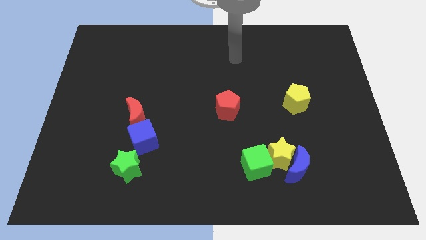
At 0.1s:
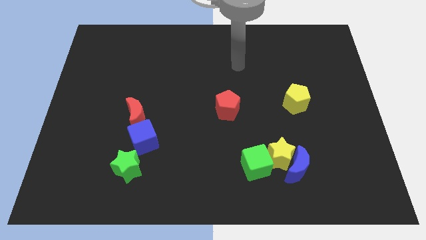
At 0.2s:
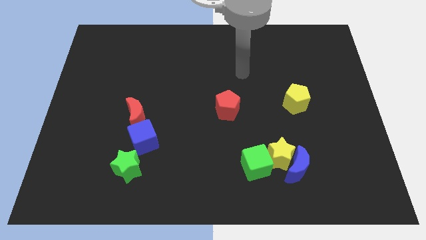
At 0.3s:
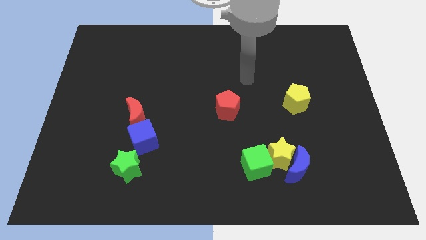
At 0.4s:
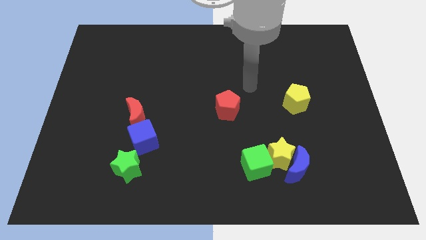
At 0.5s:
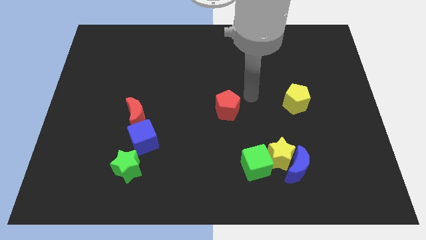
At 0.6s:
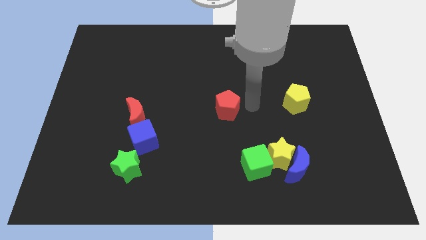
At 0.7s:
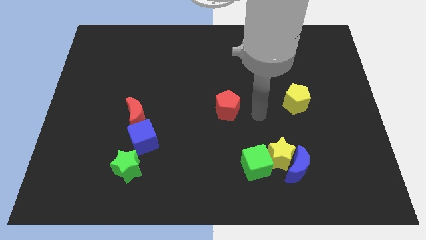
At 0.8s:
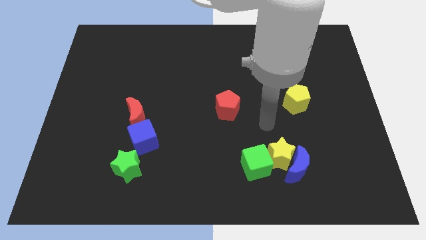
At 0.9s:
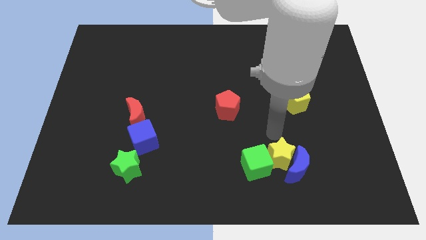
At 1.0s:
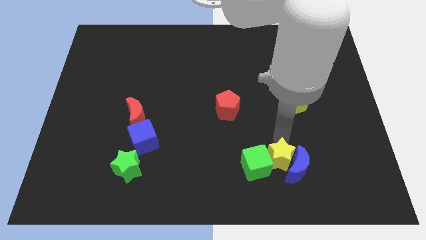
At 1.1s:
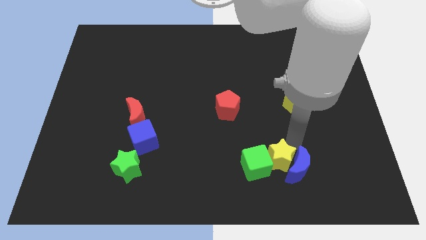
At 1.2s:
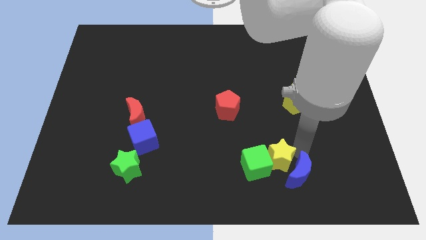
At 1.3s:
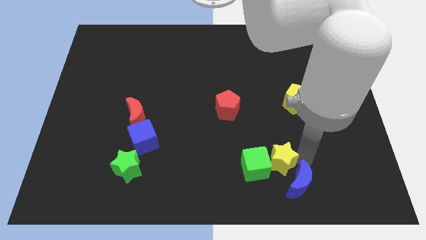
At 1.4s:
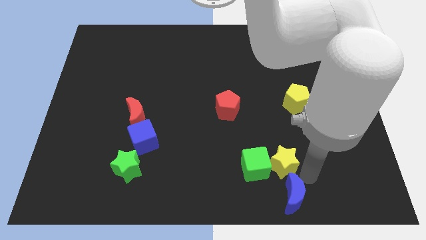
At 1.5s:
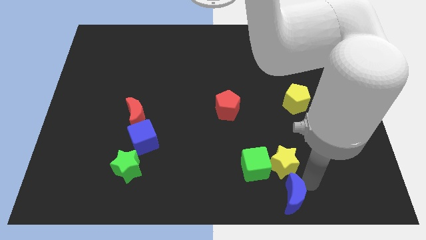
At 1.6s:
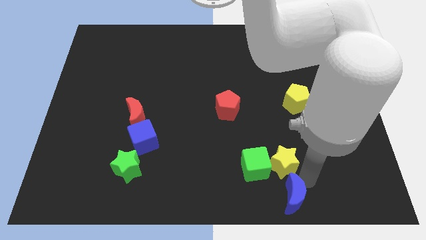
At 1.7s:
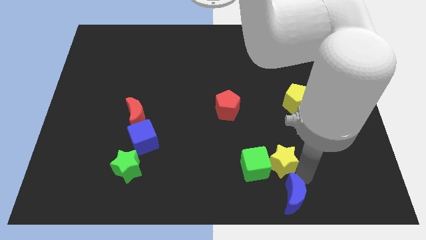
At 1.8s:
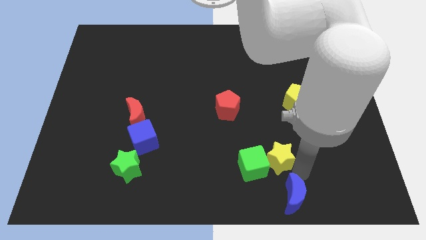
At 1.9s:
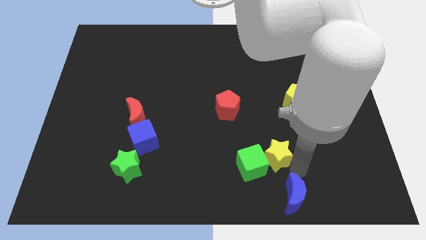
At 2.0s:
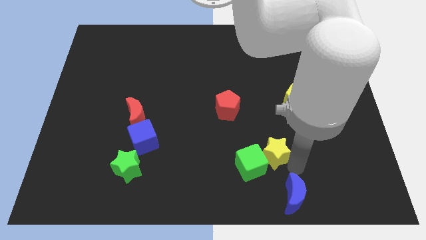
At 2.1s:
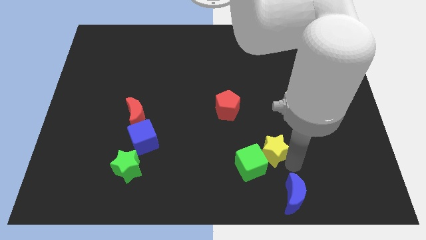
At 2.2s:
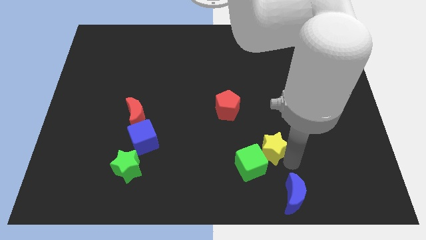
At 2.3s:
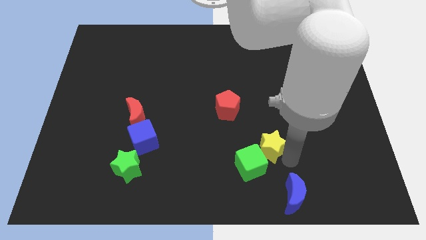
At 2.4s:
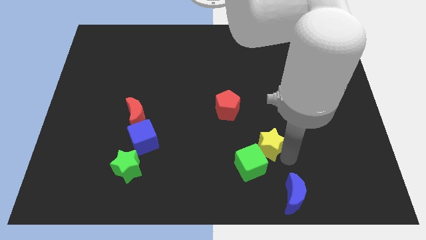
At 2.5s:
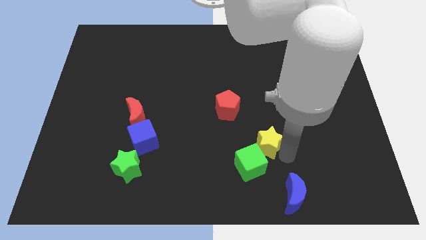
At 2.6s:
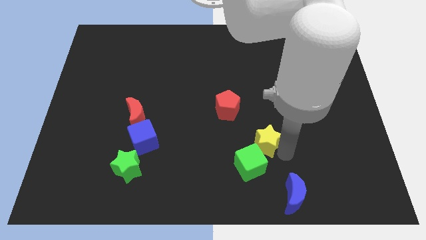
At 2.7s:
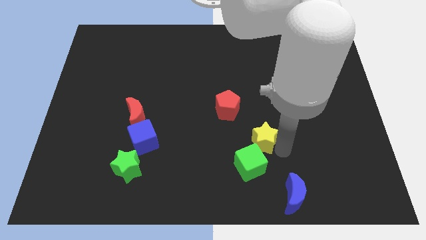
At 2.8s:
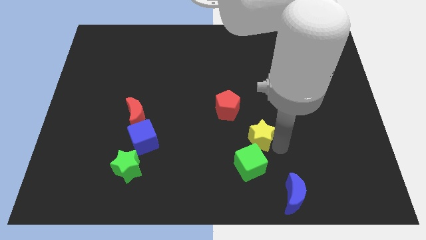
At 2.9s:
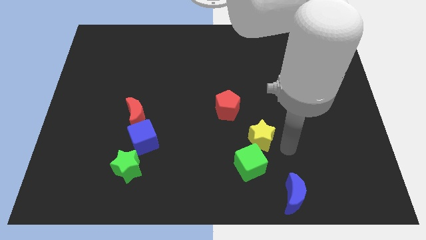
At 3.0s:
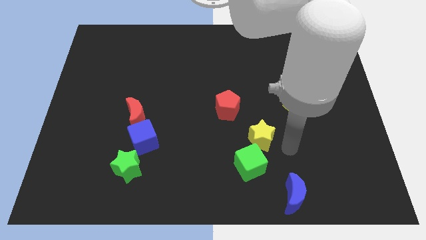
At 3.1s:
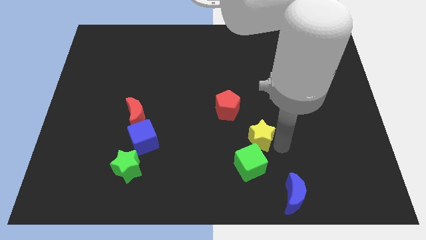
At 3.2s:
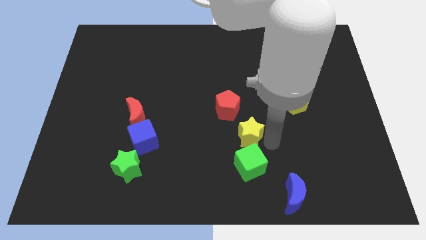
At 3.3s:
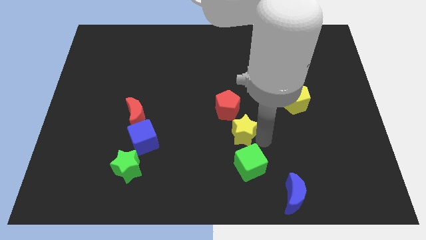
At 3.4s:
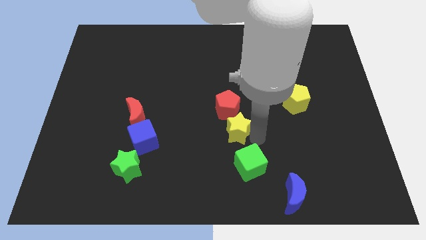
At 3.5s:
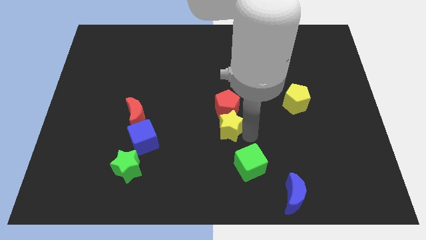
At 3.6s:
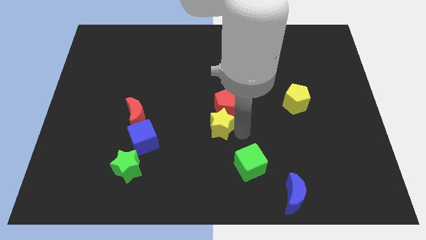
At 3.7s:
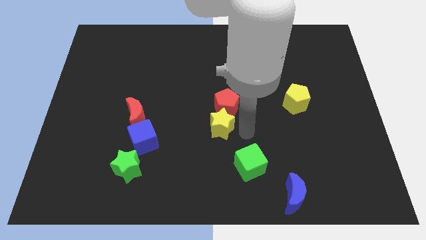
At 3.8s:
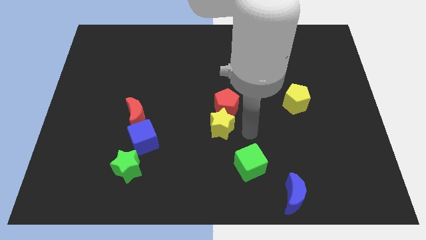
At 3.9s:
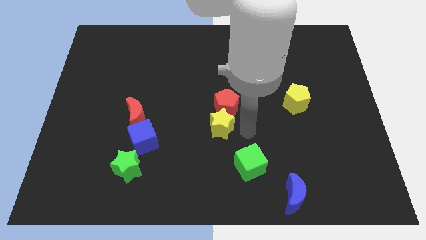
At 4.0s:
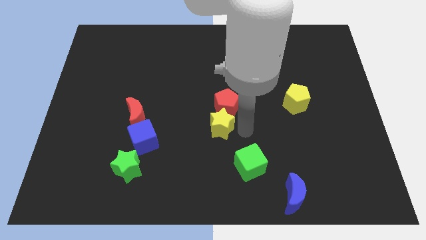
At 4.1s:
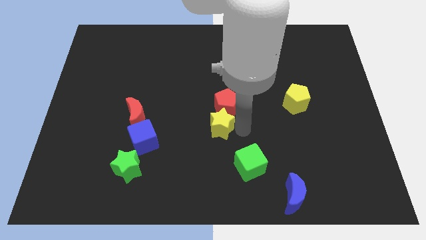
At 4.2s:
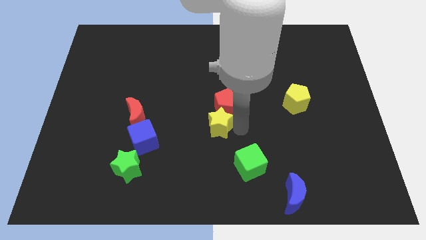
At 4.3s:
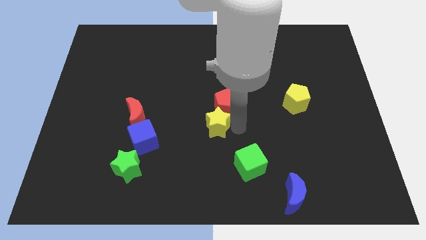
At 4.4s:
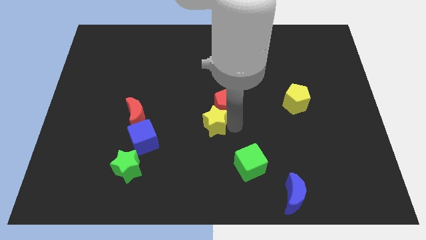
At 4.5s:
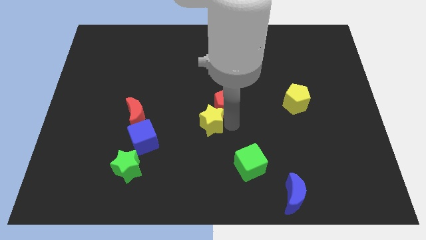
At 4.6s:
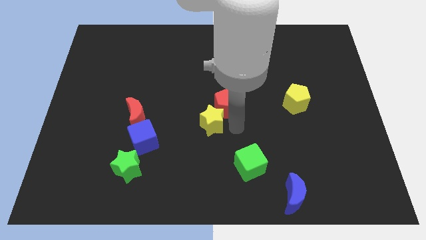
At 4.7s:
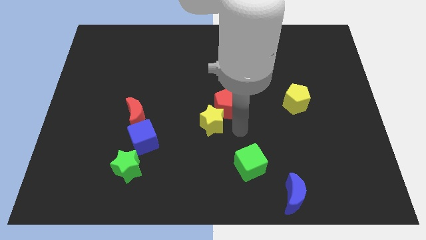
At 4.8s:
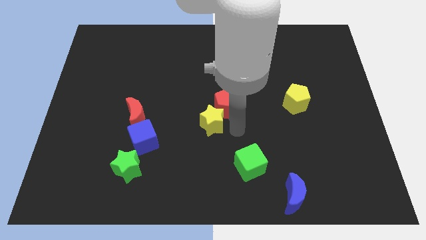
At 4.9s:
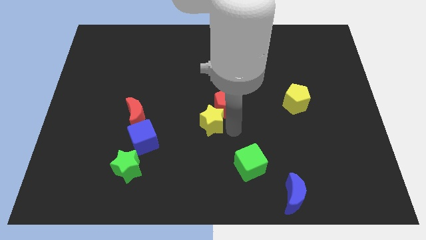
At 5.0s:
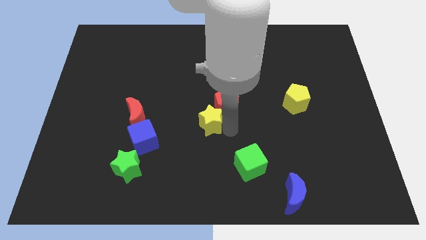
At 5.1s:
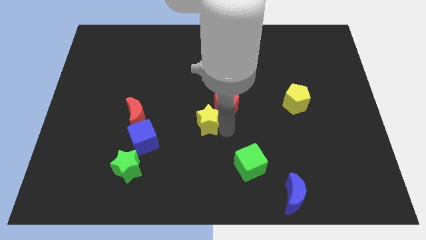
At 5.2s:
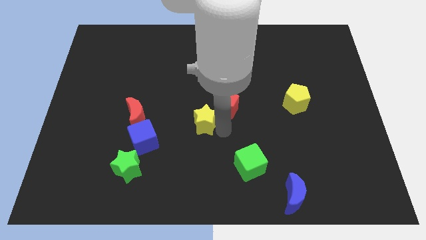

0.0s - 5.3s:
move the yellow star to the right side of the red moon

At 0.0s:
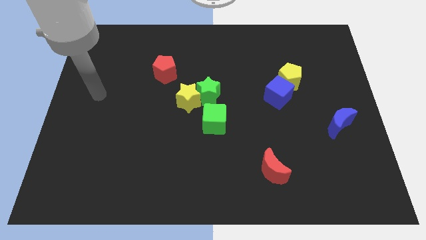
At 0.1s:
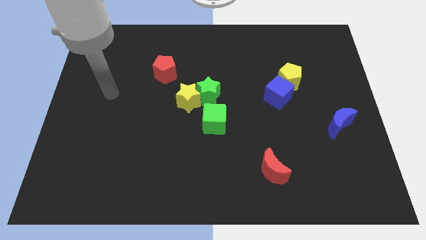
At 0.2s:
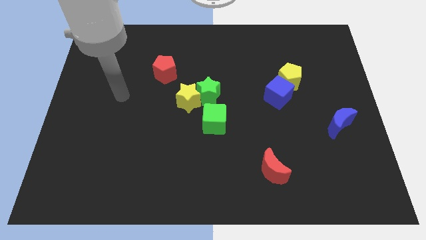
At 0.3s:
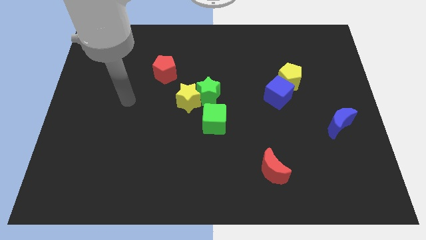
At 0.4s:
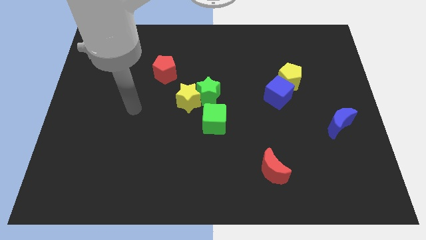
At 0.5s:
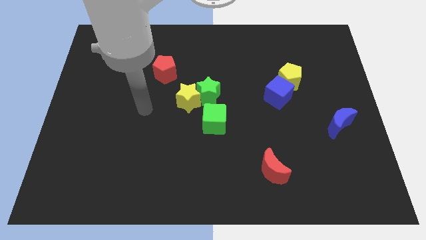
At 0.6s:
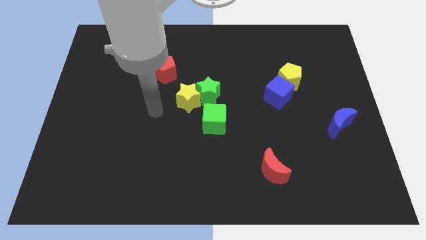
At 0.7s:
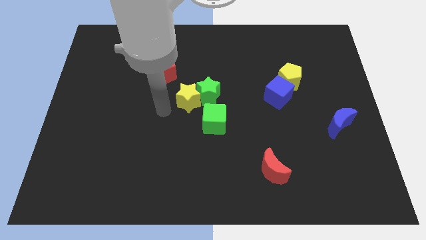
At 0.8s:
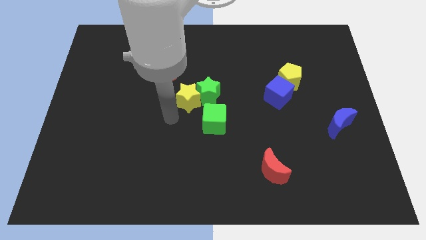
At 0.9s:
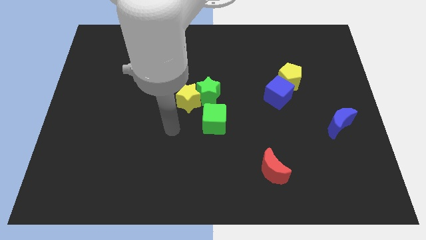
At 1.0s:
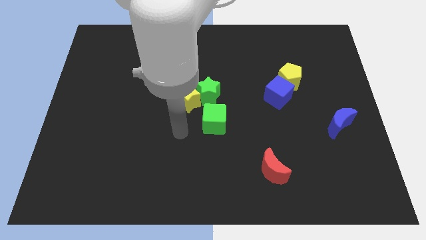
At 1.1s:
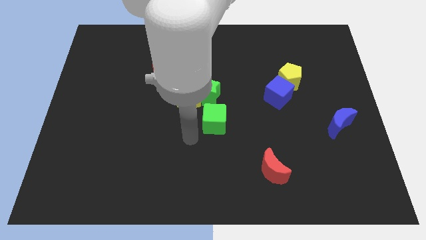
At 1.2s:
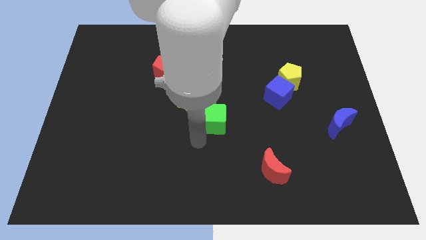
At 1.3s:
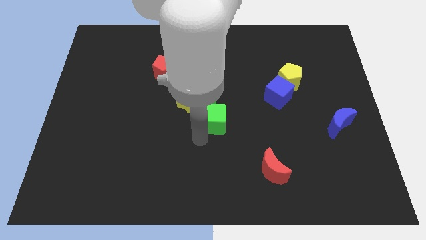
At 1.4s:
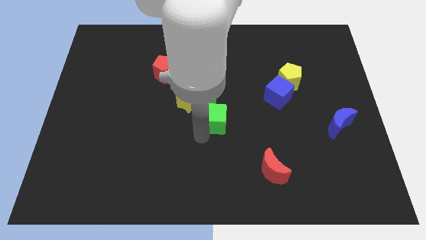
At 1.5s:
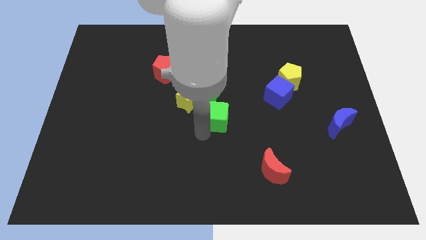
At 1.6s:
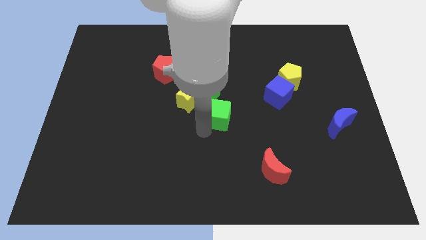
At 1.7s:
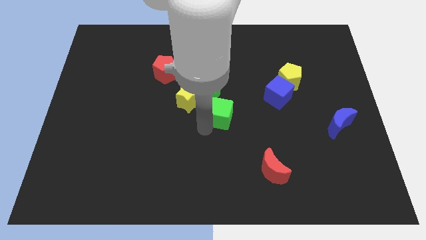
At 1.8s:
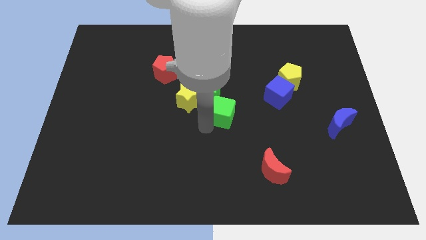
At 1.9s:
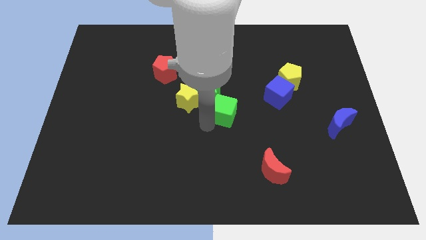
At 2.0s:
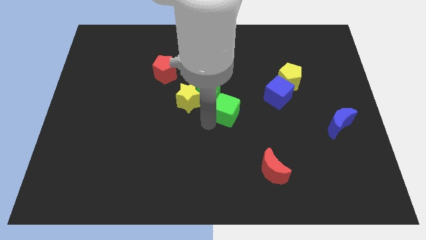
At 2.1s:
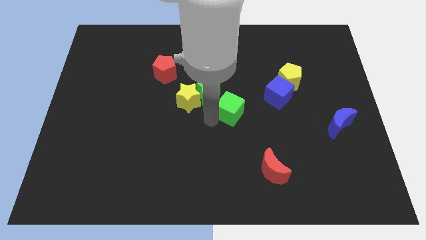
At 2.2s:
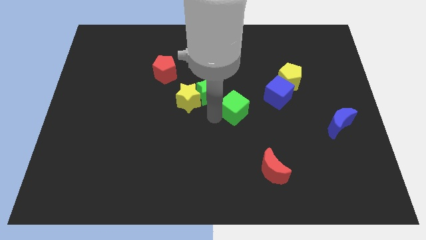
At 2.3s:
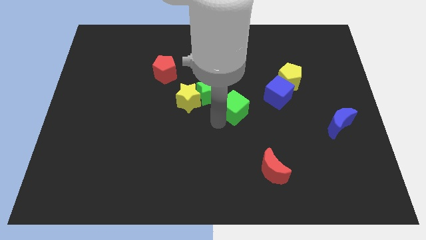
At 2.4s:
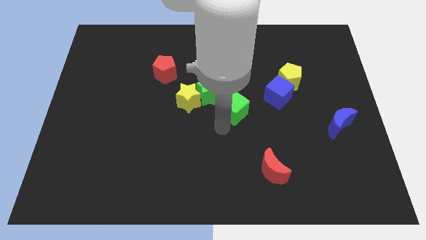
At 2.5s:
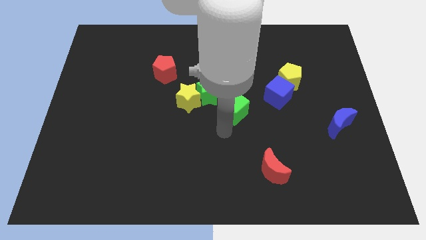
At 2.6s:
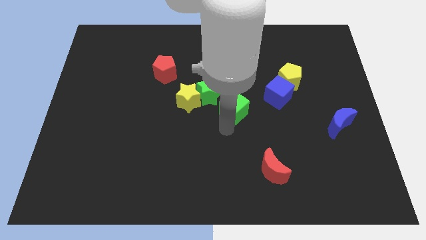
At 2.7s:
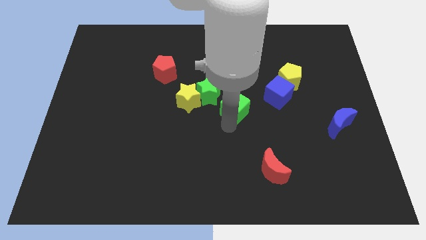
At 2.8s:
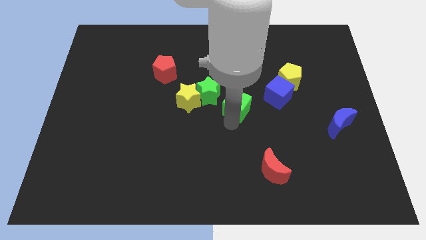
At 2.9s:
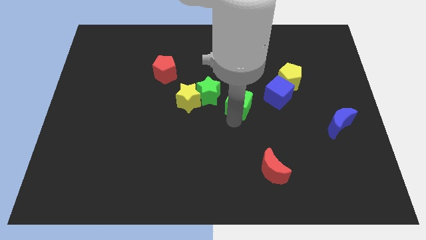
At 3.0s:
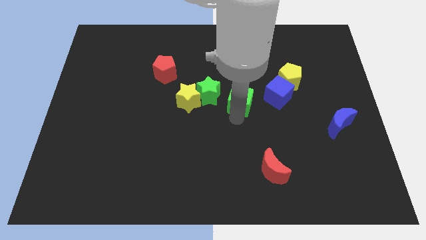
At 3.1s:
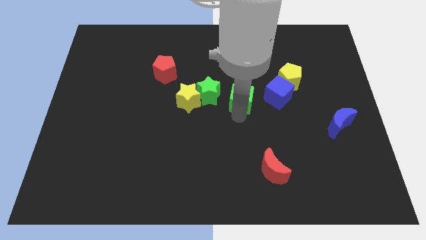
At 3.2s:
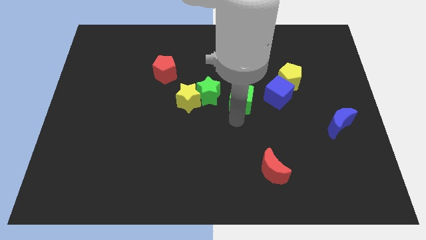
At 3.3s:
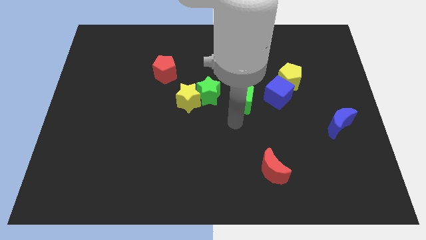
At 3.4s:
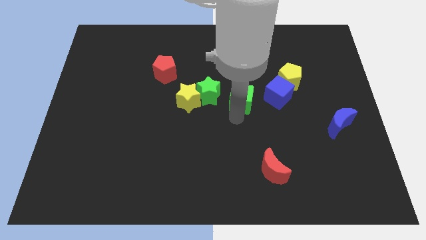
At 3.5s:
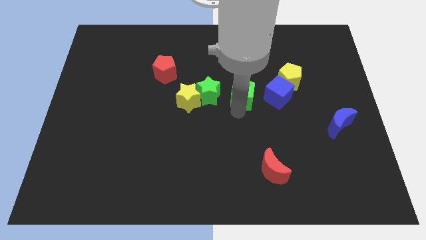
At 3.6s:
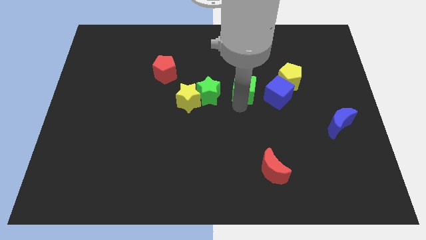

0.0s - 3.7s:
push the green cube left of the yellow pentagon
